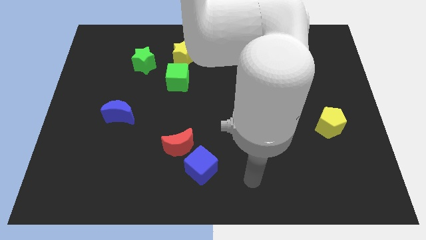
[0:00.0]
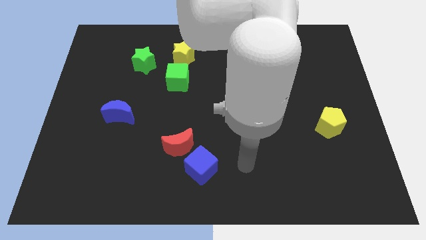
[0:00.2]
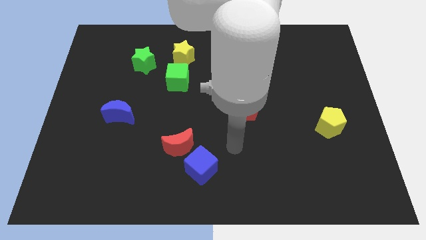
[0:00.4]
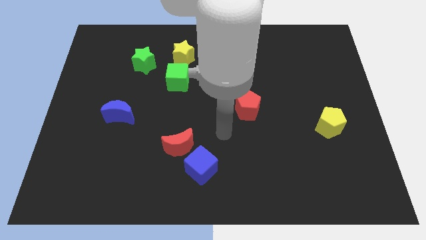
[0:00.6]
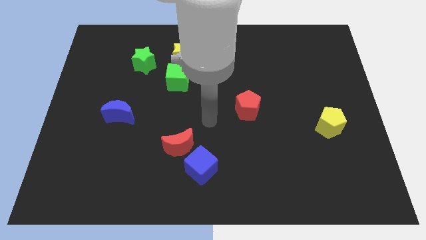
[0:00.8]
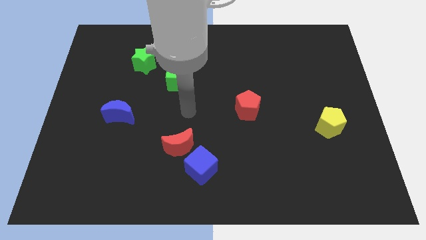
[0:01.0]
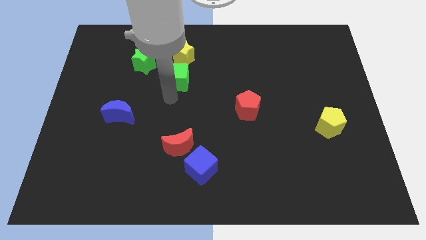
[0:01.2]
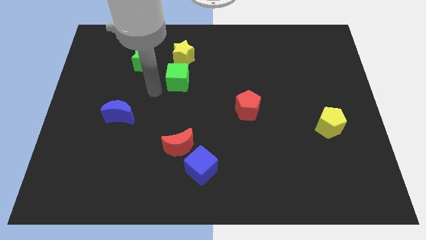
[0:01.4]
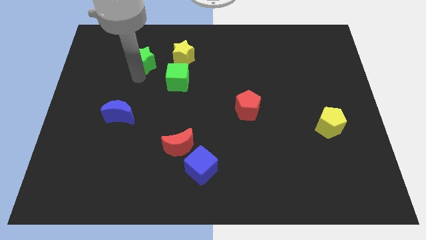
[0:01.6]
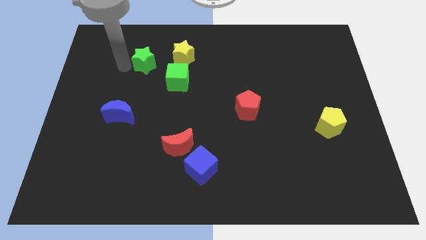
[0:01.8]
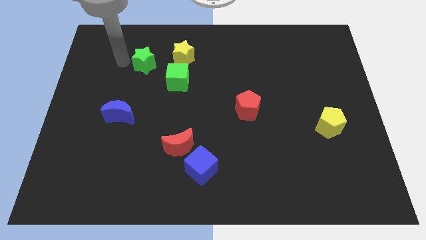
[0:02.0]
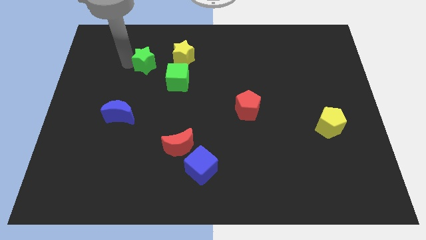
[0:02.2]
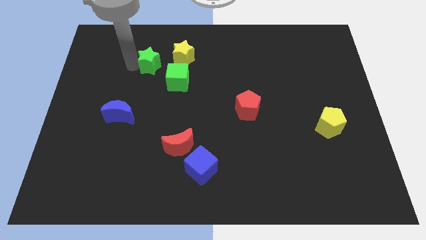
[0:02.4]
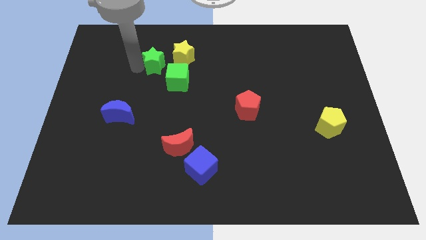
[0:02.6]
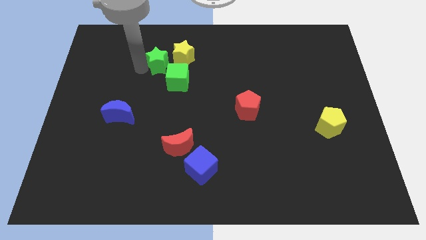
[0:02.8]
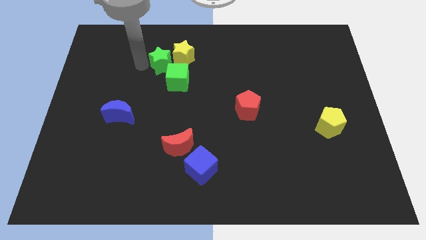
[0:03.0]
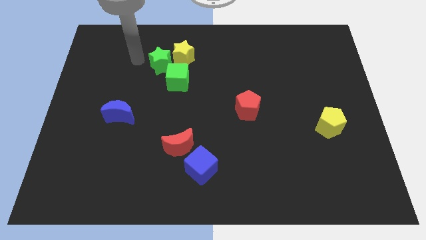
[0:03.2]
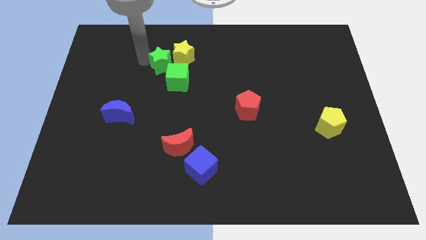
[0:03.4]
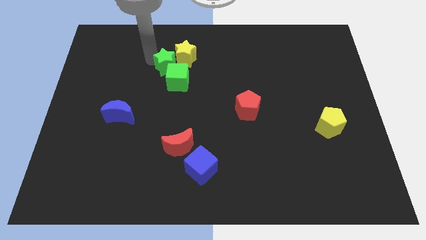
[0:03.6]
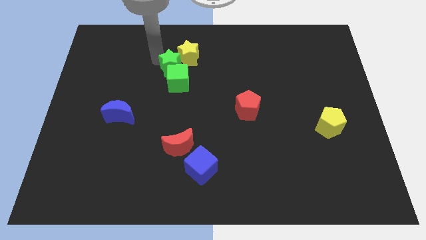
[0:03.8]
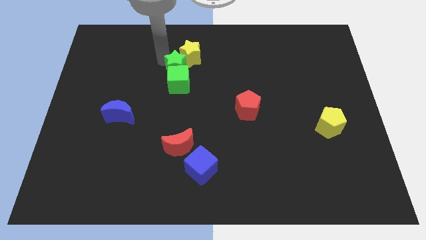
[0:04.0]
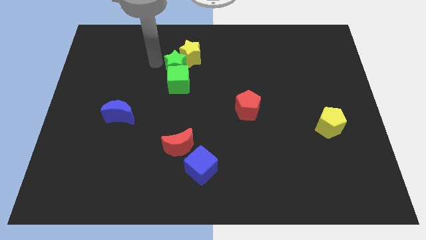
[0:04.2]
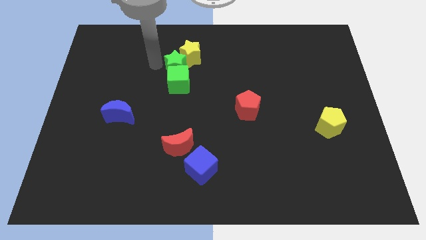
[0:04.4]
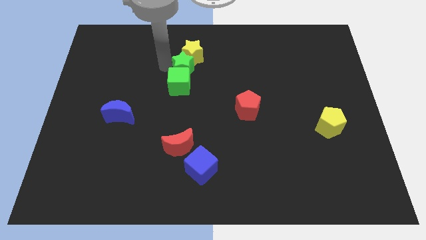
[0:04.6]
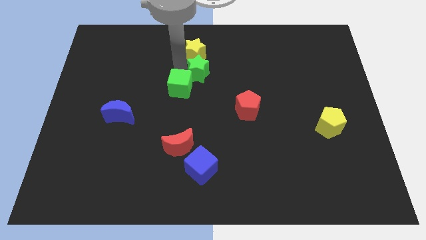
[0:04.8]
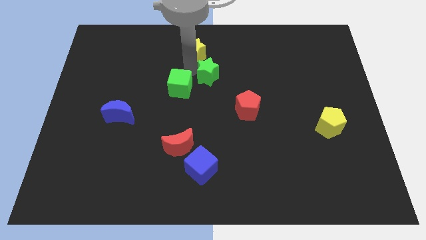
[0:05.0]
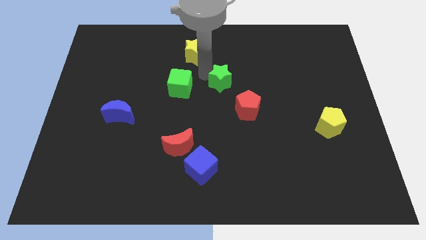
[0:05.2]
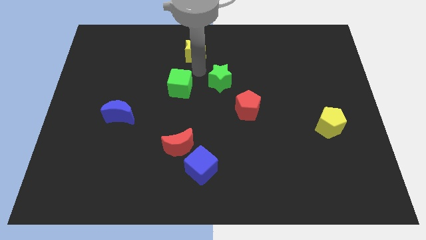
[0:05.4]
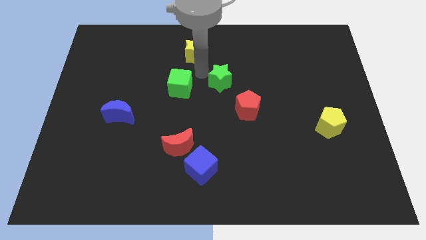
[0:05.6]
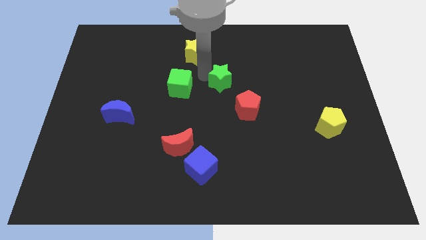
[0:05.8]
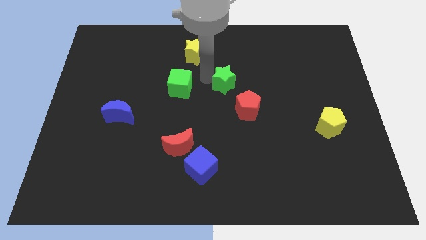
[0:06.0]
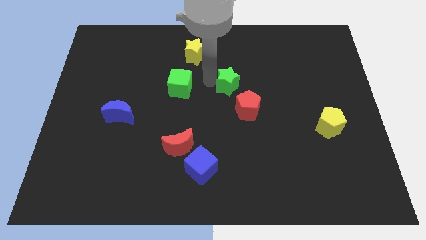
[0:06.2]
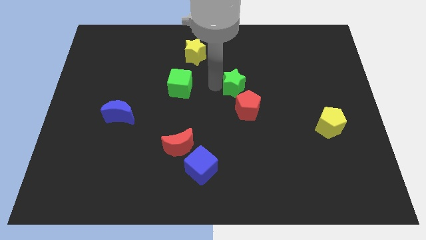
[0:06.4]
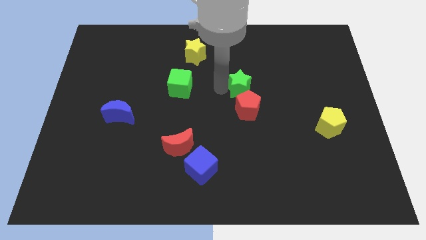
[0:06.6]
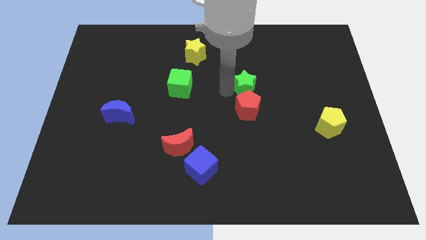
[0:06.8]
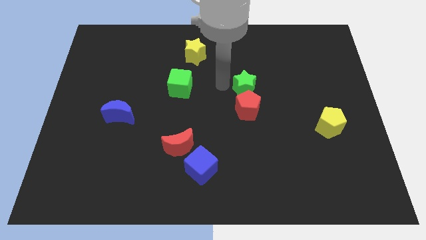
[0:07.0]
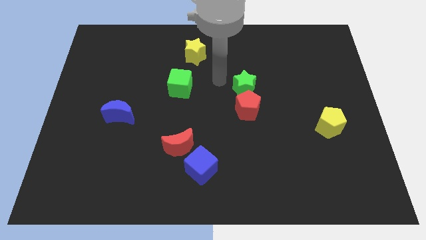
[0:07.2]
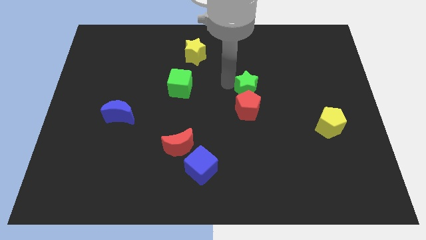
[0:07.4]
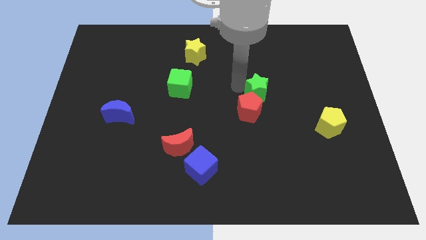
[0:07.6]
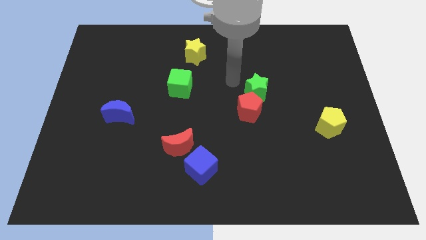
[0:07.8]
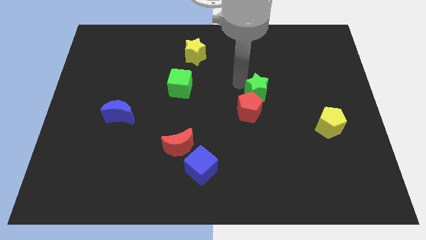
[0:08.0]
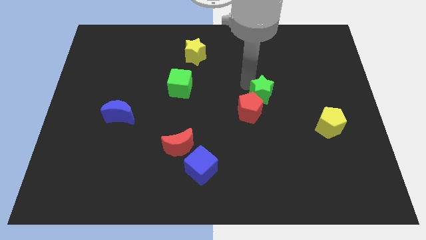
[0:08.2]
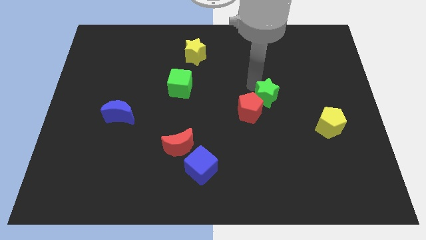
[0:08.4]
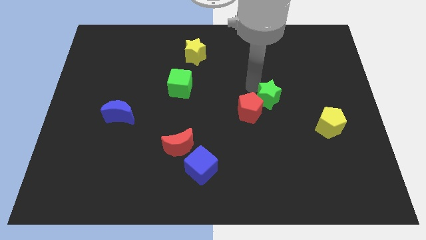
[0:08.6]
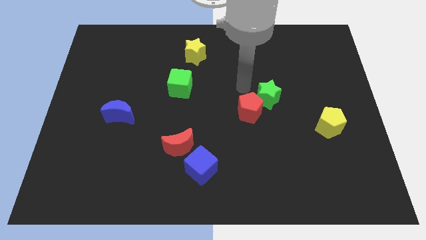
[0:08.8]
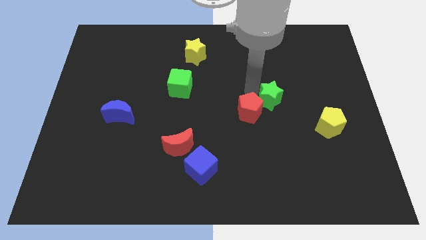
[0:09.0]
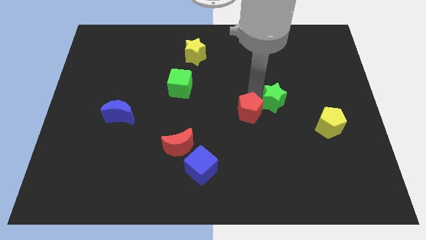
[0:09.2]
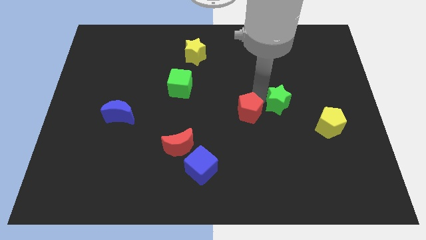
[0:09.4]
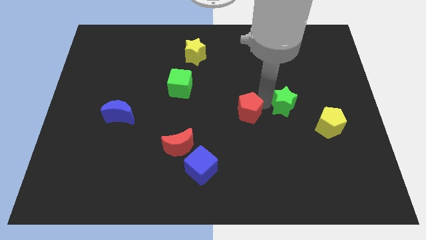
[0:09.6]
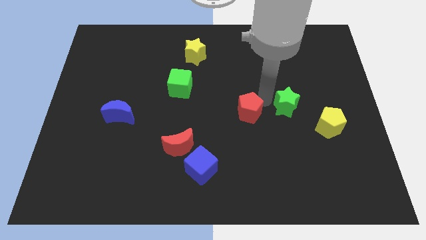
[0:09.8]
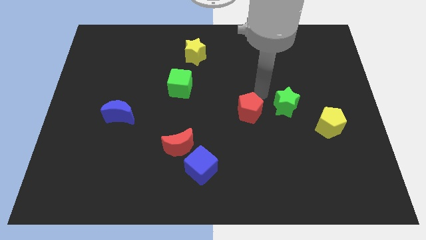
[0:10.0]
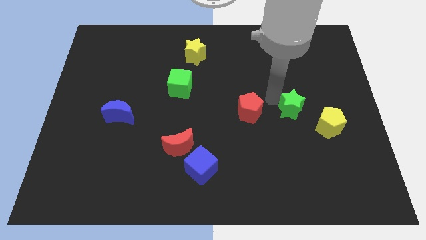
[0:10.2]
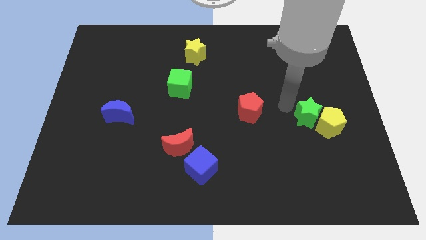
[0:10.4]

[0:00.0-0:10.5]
push the green star close to the yellow pentagon

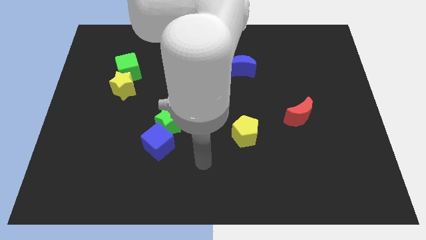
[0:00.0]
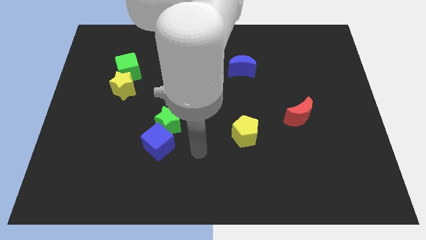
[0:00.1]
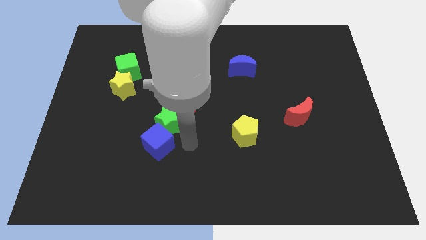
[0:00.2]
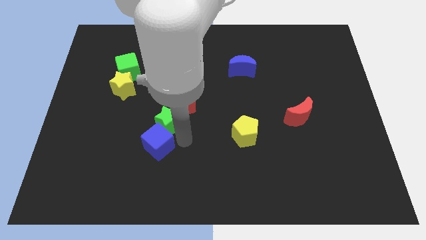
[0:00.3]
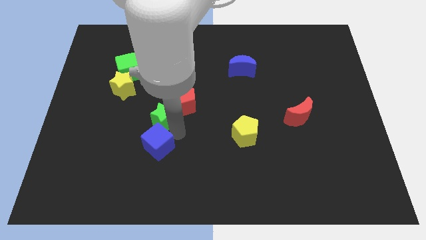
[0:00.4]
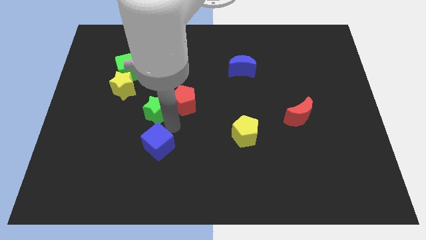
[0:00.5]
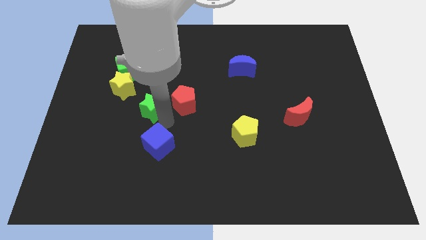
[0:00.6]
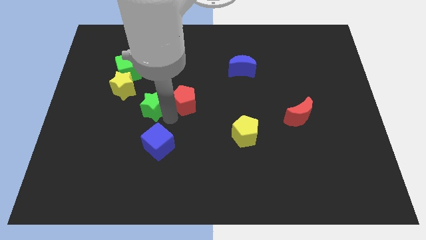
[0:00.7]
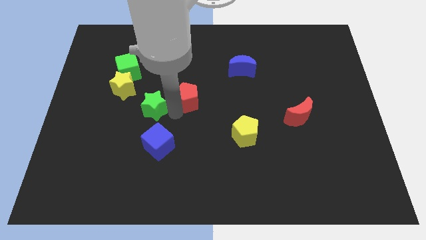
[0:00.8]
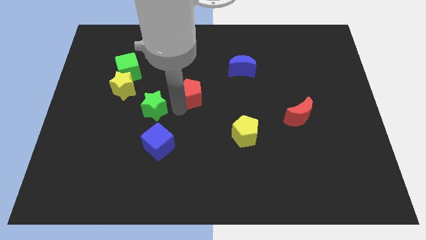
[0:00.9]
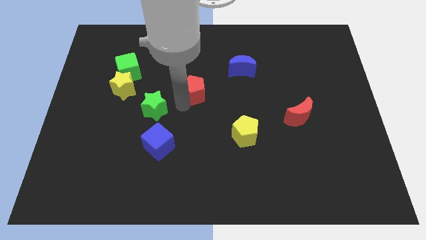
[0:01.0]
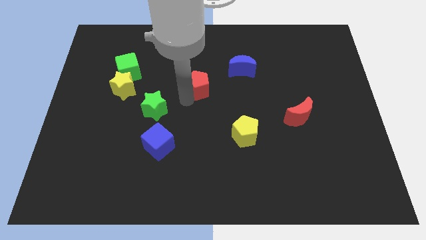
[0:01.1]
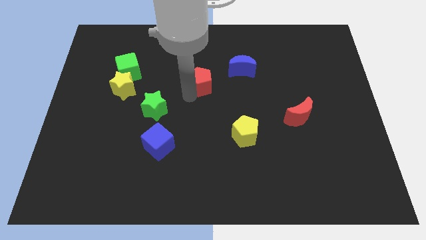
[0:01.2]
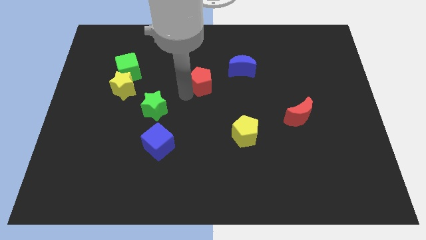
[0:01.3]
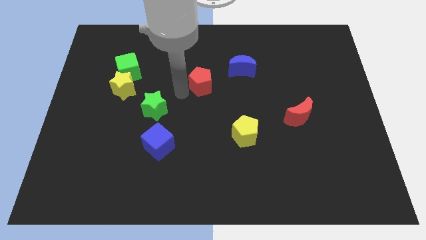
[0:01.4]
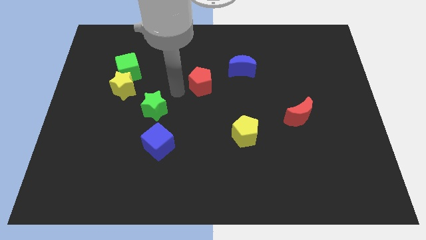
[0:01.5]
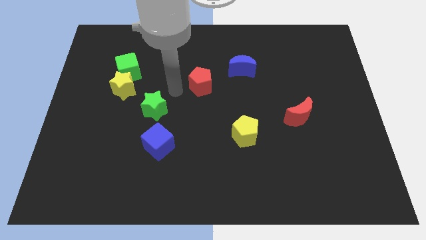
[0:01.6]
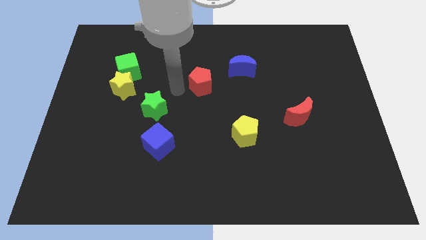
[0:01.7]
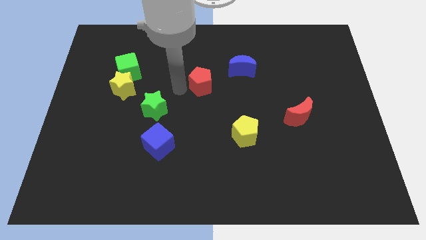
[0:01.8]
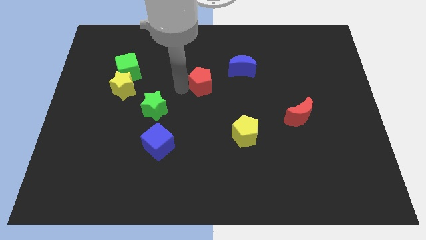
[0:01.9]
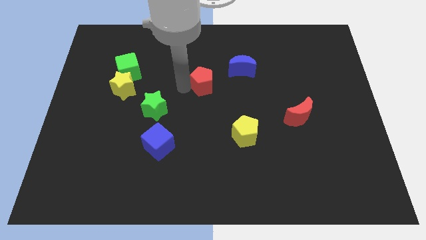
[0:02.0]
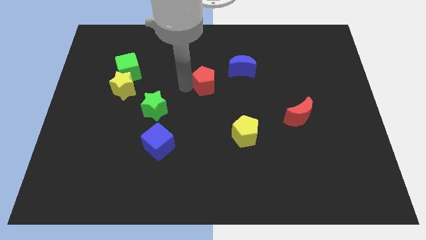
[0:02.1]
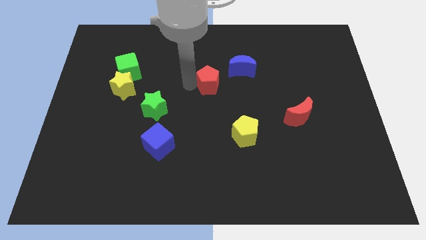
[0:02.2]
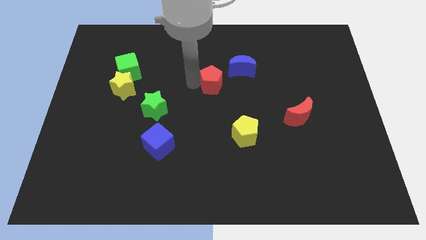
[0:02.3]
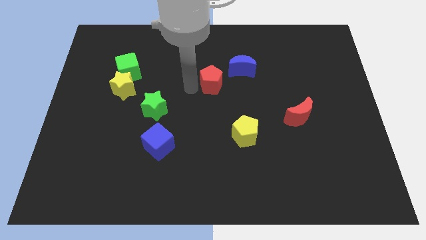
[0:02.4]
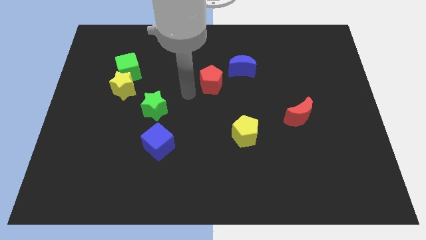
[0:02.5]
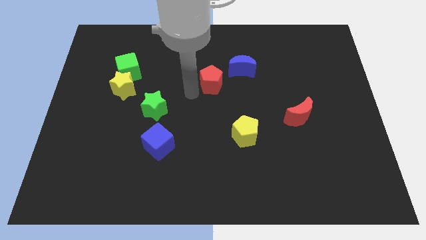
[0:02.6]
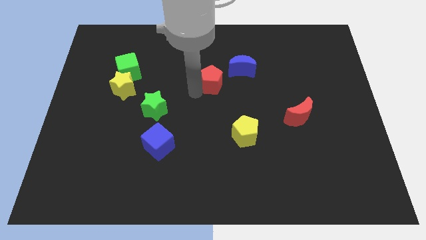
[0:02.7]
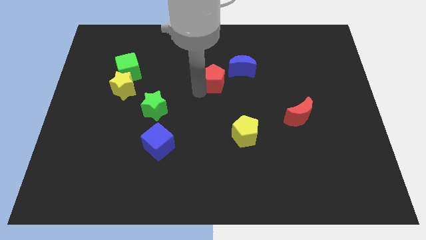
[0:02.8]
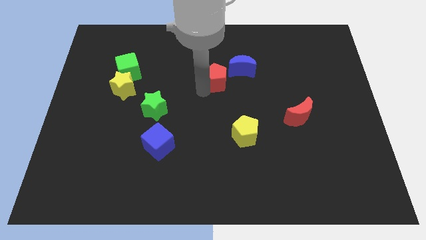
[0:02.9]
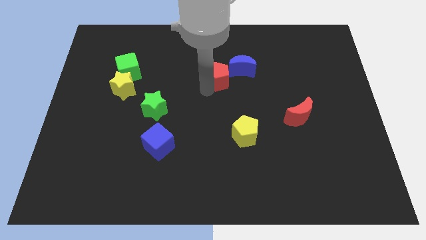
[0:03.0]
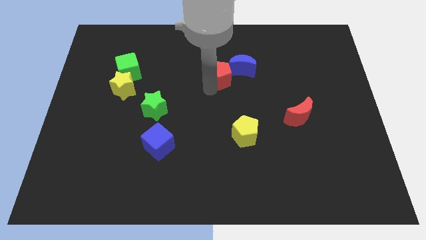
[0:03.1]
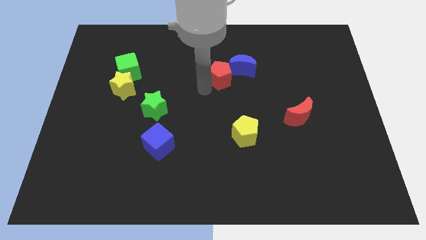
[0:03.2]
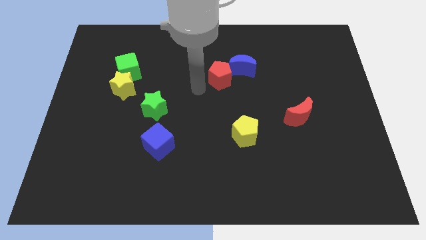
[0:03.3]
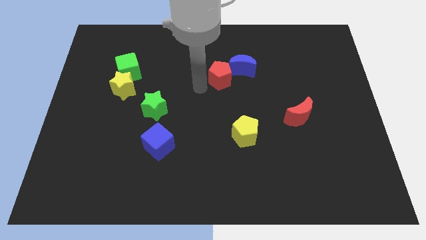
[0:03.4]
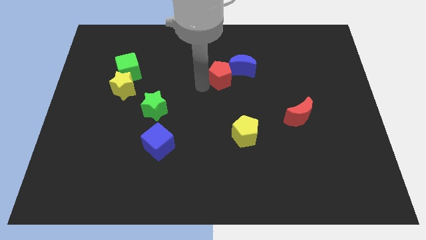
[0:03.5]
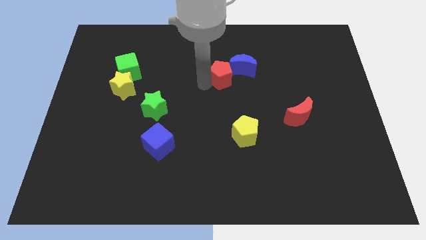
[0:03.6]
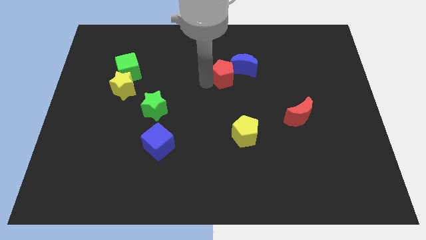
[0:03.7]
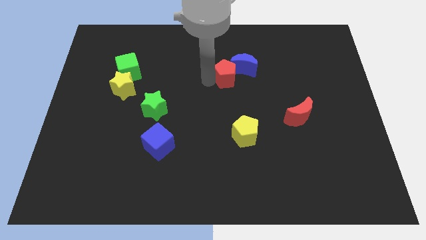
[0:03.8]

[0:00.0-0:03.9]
put the red pentagon close to the blue moon
